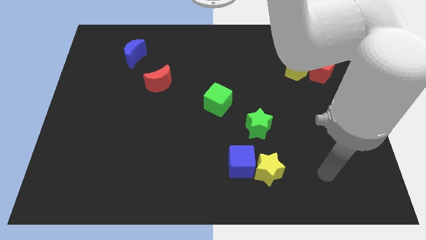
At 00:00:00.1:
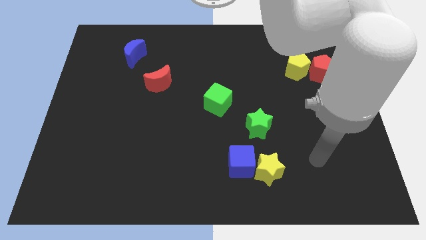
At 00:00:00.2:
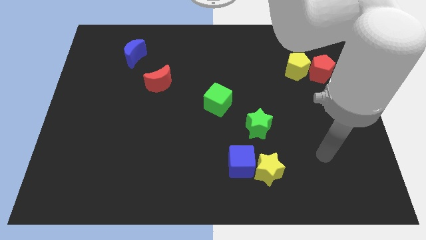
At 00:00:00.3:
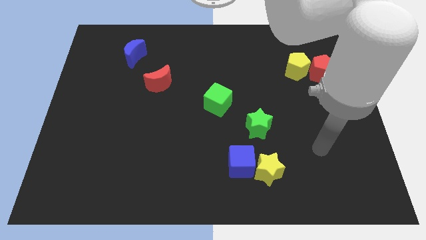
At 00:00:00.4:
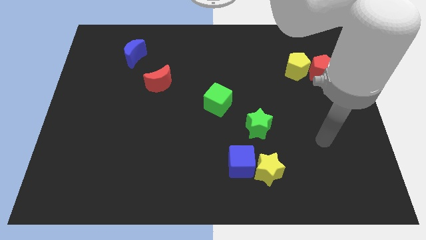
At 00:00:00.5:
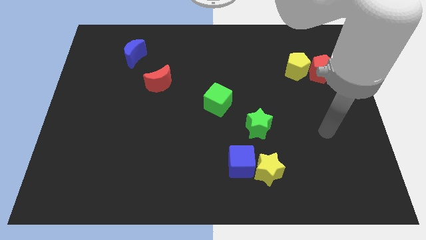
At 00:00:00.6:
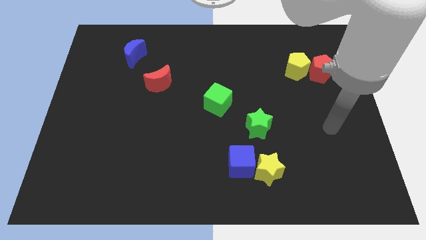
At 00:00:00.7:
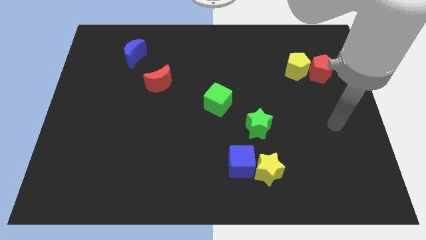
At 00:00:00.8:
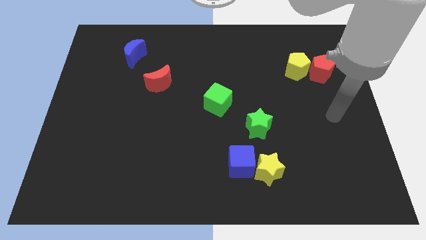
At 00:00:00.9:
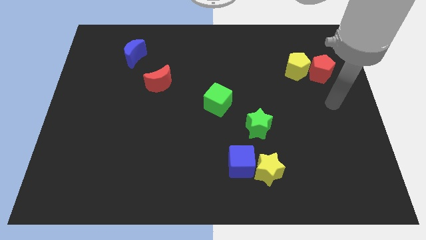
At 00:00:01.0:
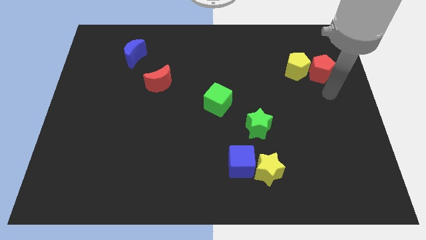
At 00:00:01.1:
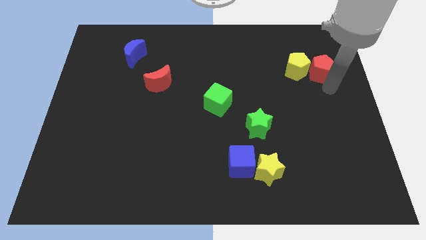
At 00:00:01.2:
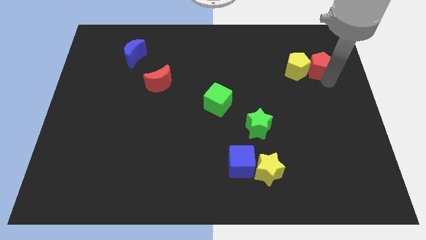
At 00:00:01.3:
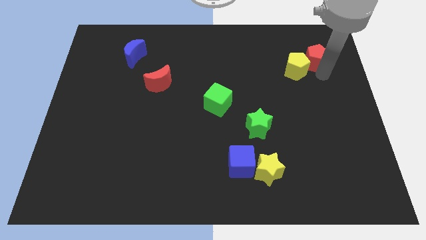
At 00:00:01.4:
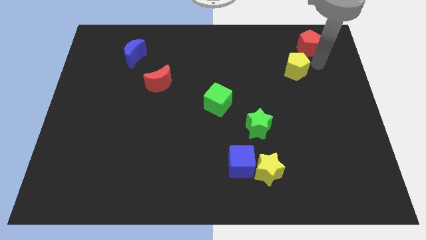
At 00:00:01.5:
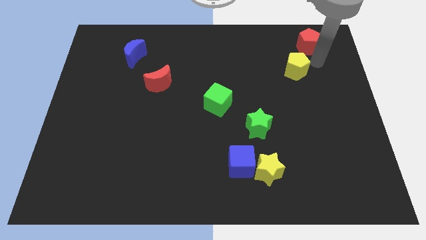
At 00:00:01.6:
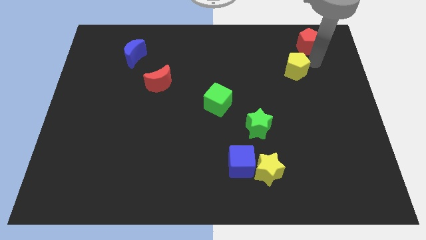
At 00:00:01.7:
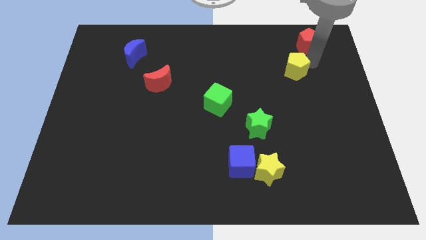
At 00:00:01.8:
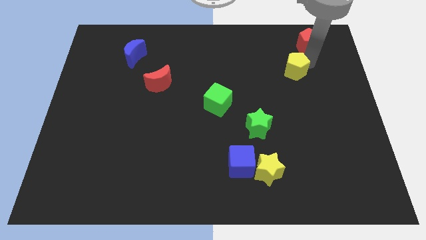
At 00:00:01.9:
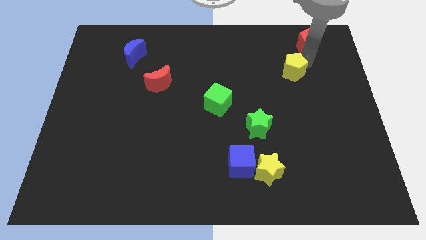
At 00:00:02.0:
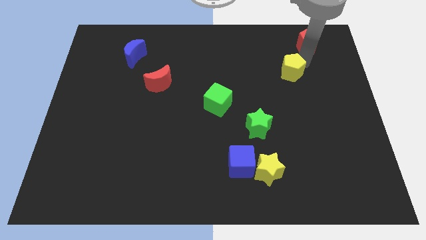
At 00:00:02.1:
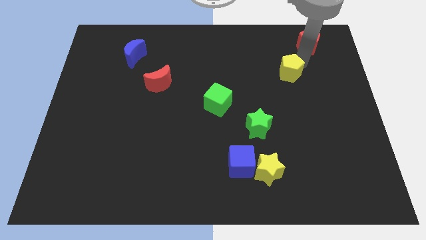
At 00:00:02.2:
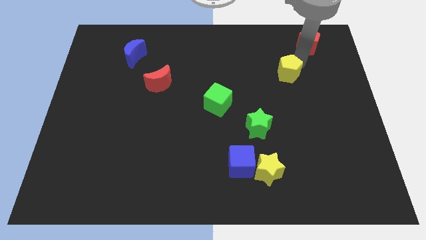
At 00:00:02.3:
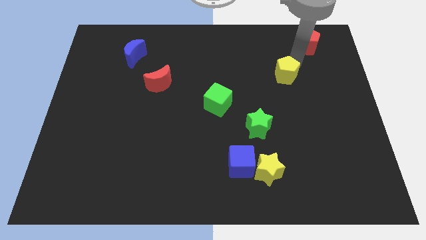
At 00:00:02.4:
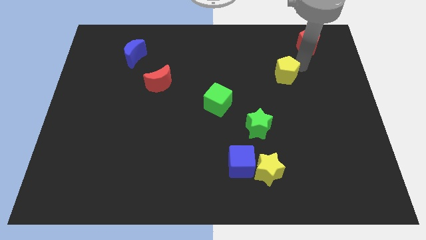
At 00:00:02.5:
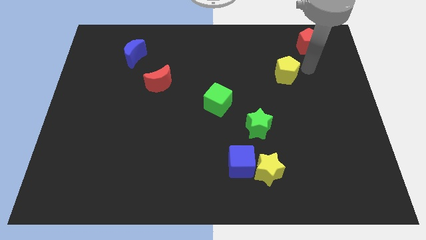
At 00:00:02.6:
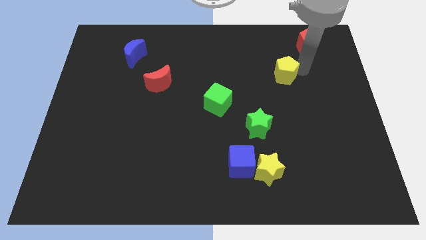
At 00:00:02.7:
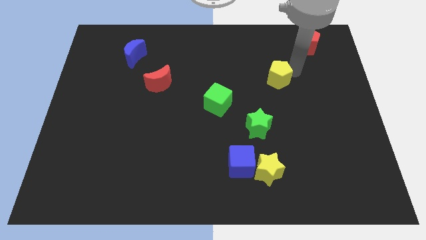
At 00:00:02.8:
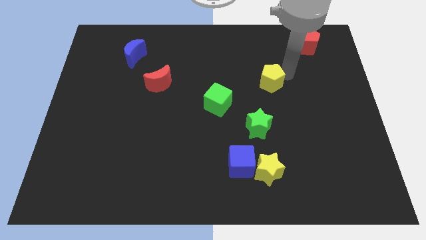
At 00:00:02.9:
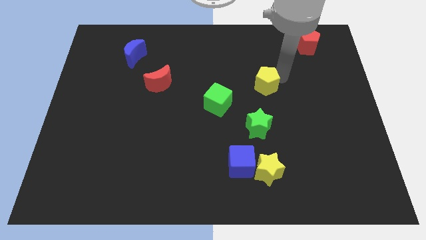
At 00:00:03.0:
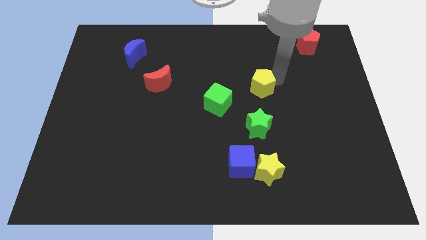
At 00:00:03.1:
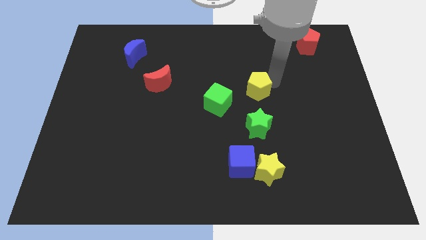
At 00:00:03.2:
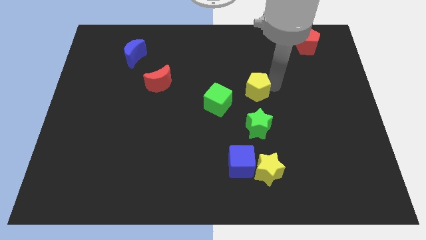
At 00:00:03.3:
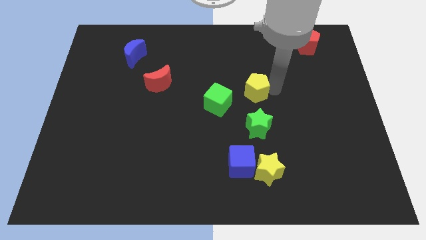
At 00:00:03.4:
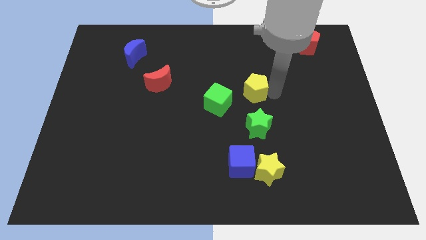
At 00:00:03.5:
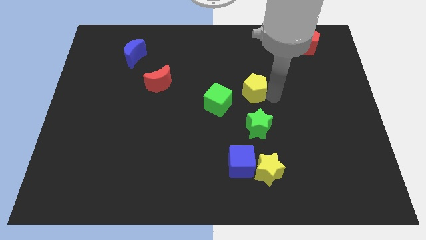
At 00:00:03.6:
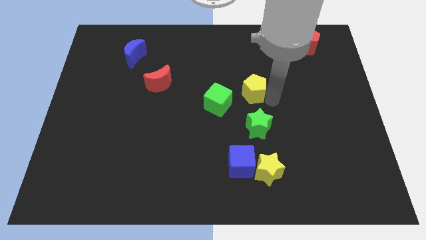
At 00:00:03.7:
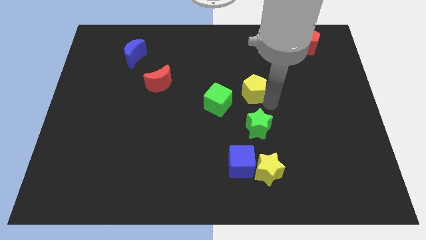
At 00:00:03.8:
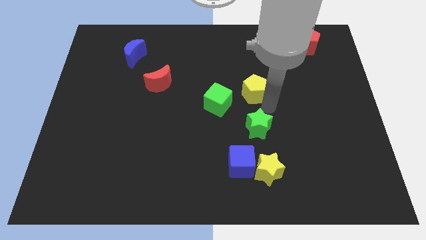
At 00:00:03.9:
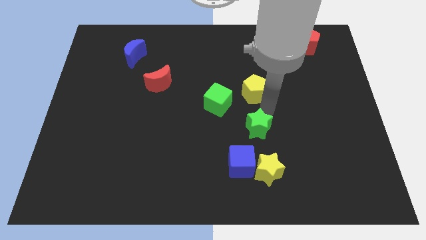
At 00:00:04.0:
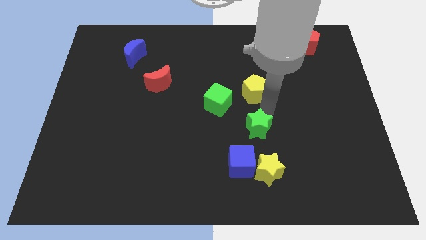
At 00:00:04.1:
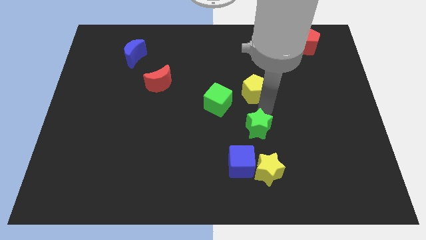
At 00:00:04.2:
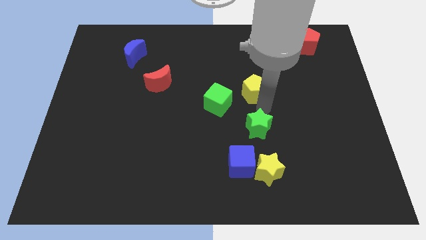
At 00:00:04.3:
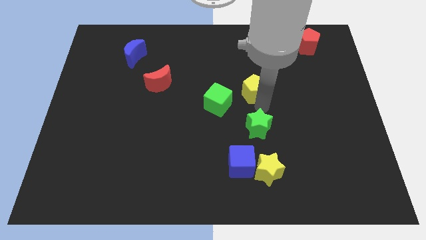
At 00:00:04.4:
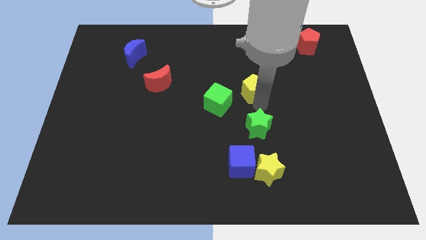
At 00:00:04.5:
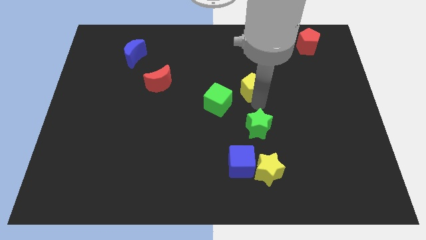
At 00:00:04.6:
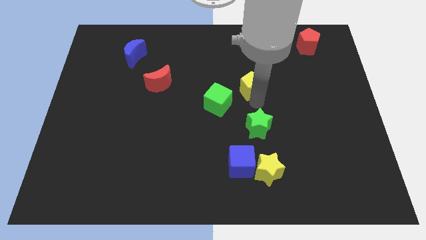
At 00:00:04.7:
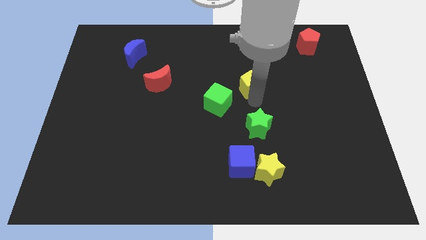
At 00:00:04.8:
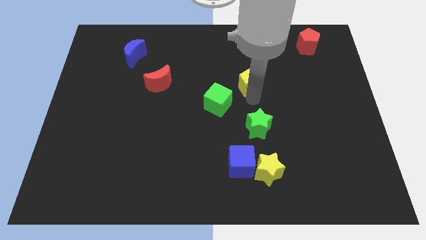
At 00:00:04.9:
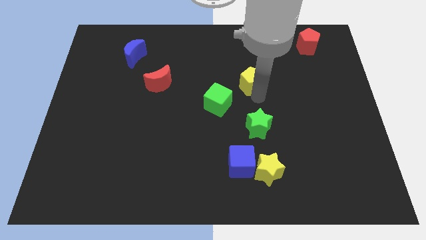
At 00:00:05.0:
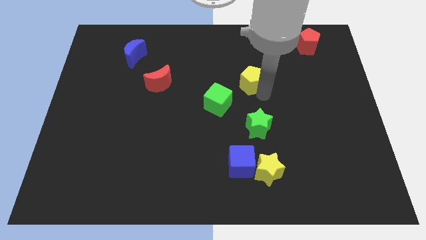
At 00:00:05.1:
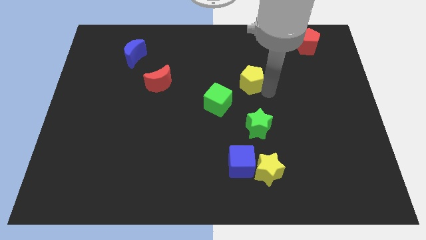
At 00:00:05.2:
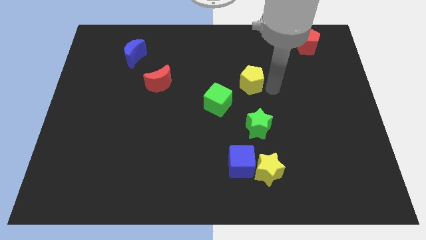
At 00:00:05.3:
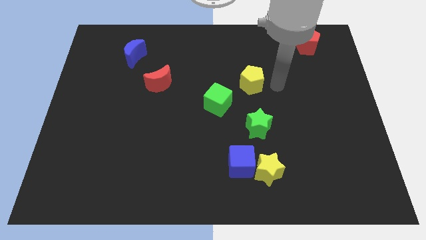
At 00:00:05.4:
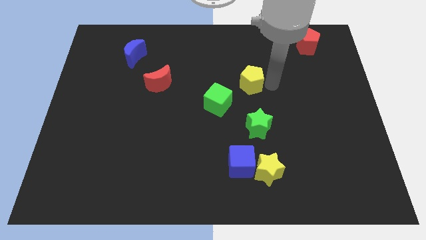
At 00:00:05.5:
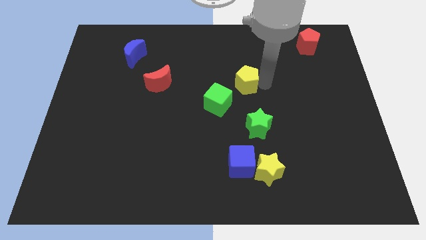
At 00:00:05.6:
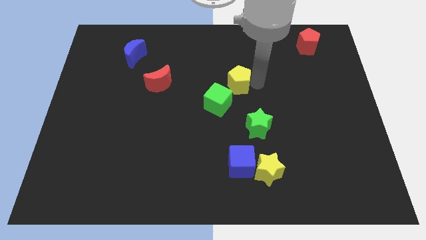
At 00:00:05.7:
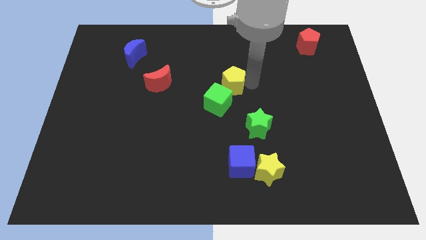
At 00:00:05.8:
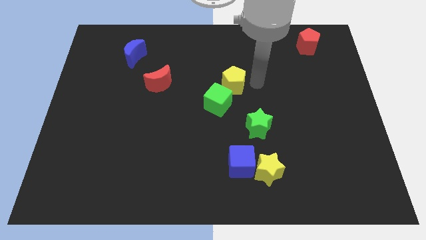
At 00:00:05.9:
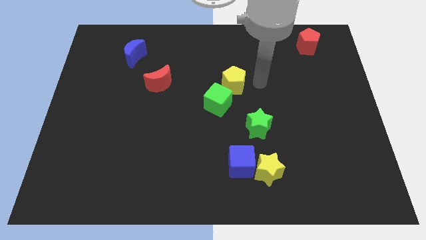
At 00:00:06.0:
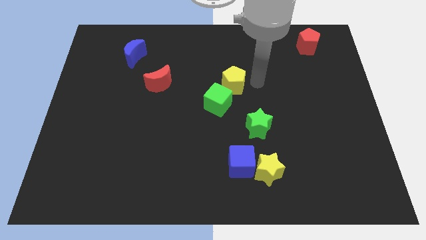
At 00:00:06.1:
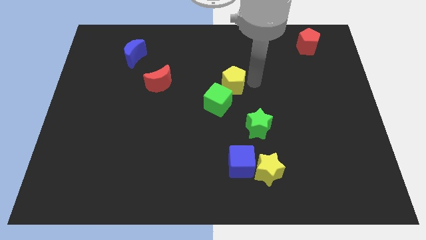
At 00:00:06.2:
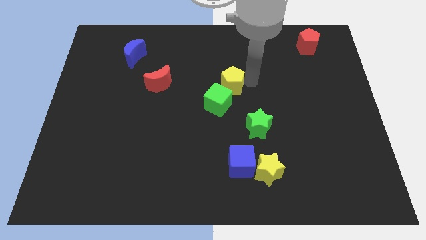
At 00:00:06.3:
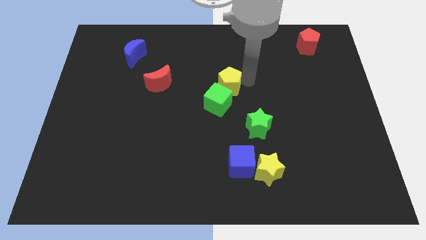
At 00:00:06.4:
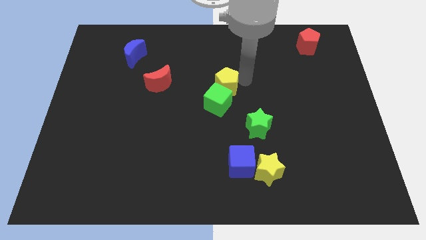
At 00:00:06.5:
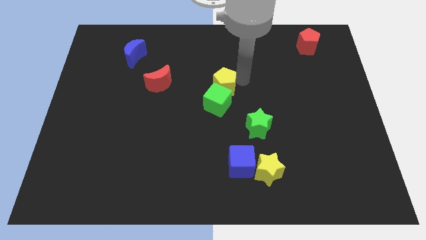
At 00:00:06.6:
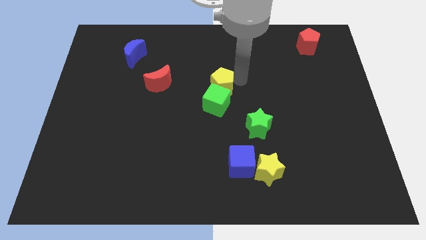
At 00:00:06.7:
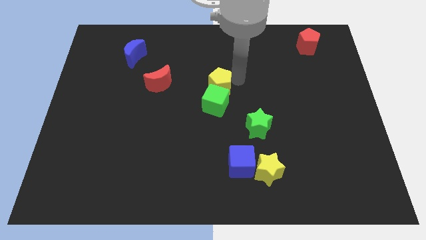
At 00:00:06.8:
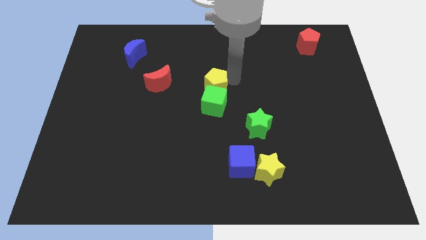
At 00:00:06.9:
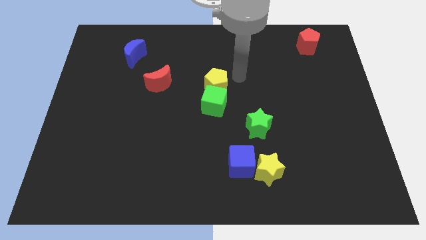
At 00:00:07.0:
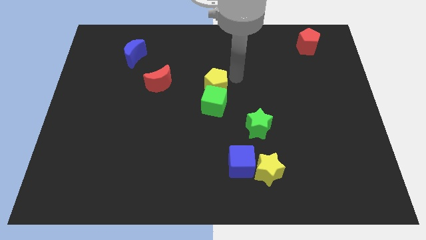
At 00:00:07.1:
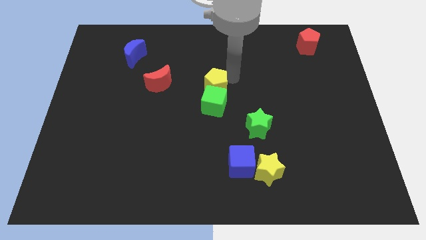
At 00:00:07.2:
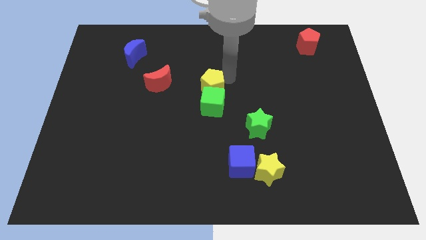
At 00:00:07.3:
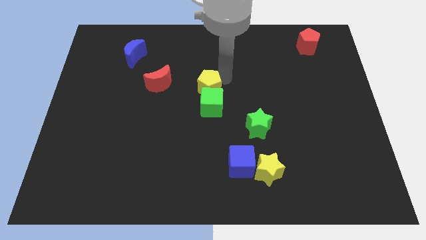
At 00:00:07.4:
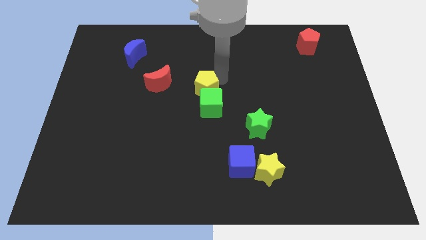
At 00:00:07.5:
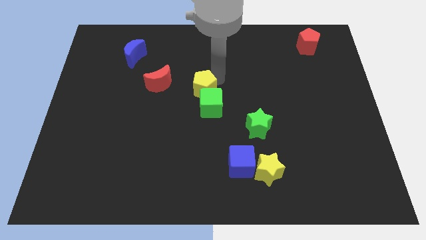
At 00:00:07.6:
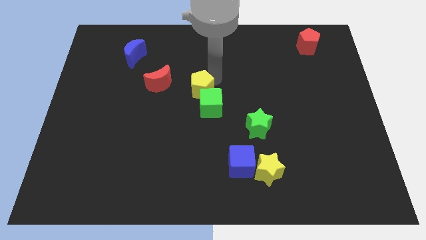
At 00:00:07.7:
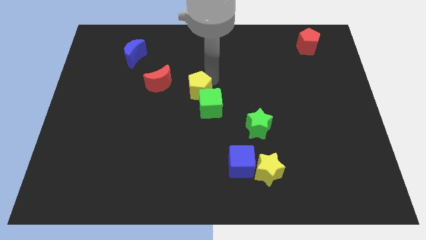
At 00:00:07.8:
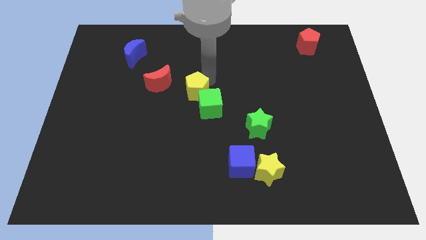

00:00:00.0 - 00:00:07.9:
put the yellow pentagon diagonally down and to the right of the red moon
